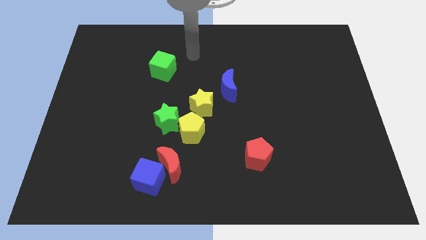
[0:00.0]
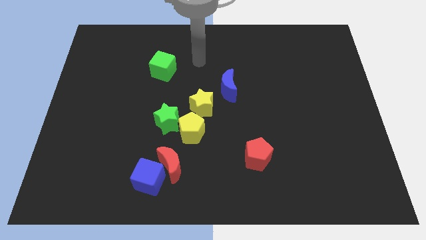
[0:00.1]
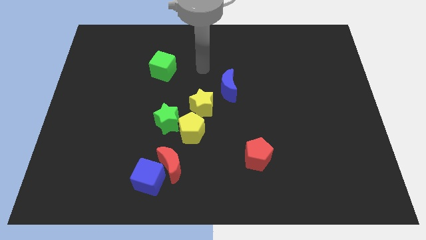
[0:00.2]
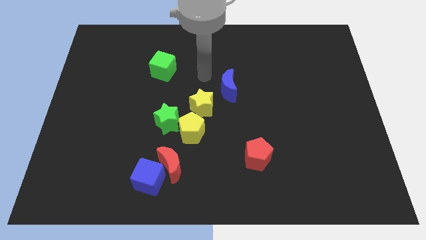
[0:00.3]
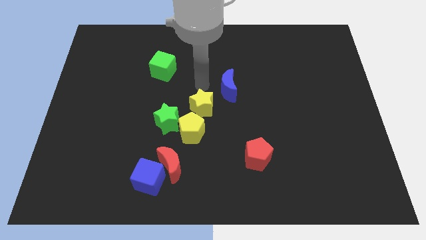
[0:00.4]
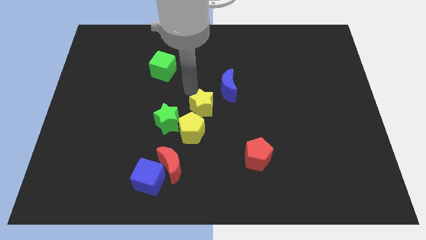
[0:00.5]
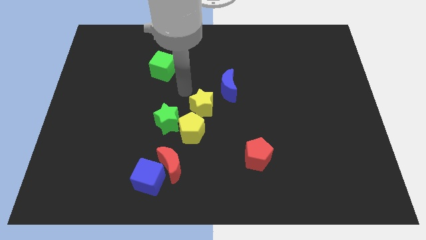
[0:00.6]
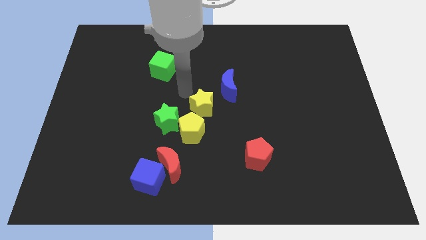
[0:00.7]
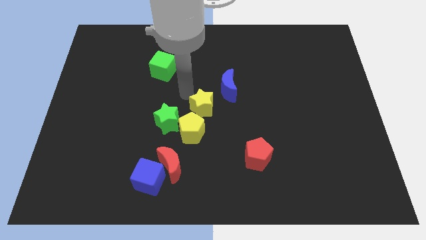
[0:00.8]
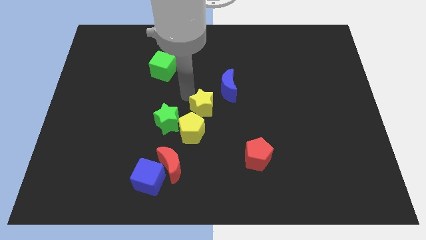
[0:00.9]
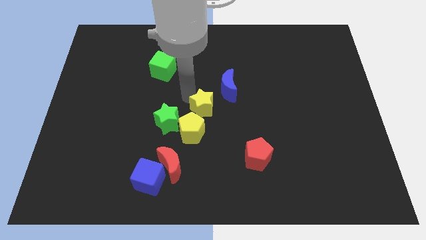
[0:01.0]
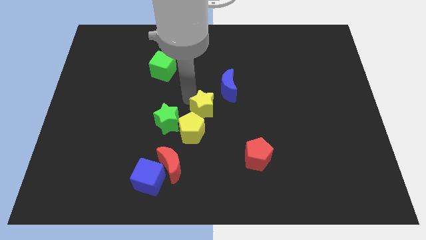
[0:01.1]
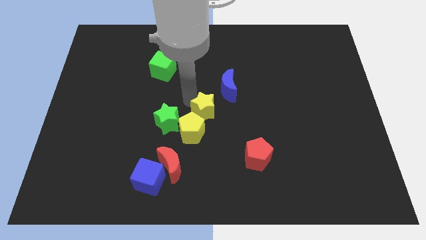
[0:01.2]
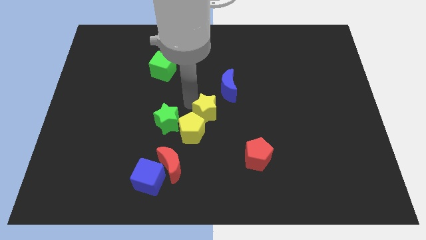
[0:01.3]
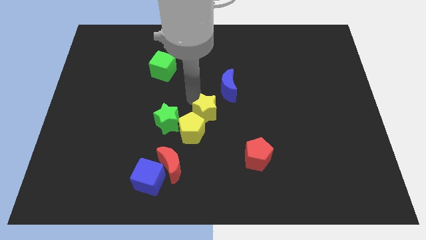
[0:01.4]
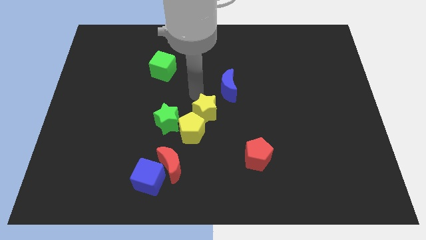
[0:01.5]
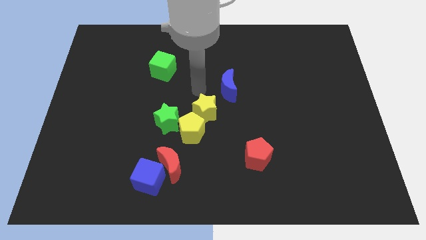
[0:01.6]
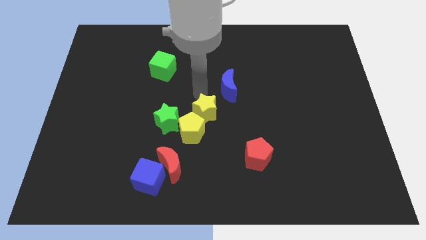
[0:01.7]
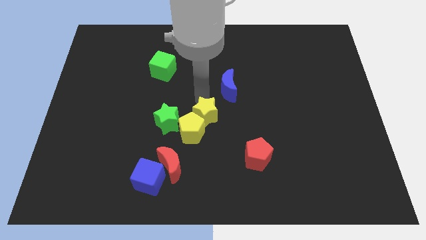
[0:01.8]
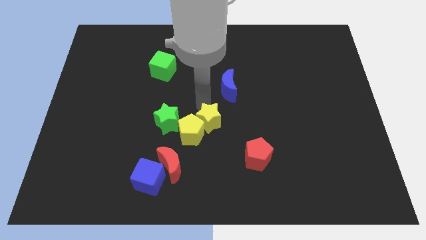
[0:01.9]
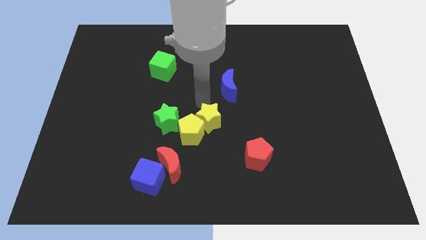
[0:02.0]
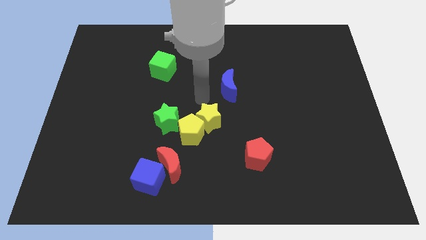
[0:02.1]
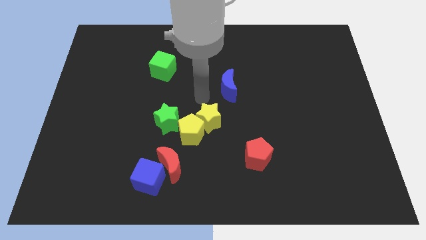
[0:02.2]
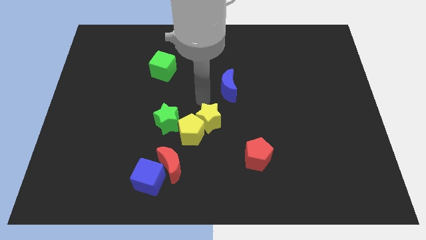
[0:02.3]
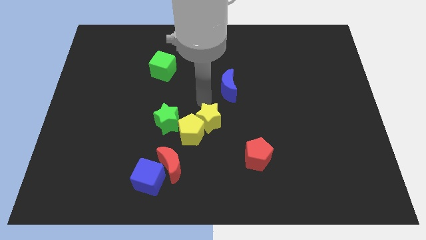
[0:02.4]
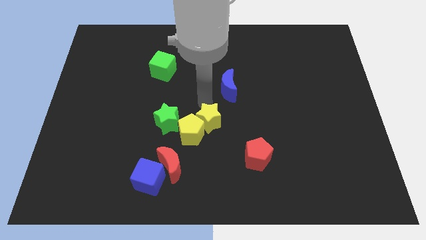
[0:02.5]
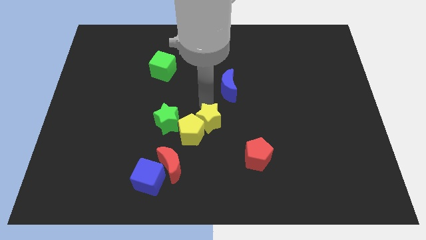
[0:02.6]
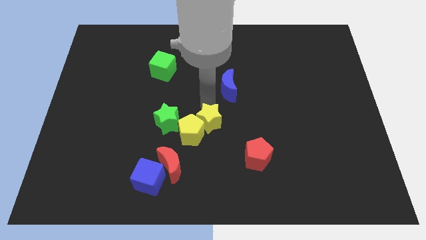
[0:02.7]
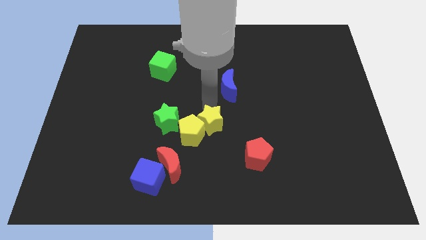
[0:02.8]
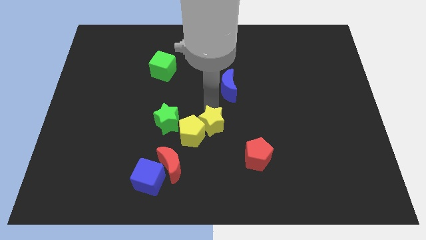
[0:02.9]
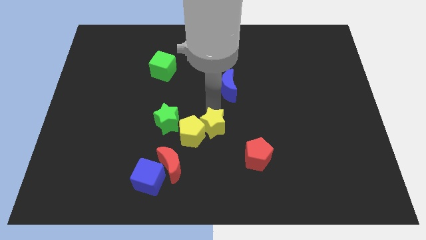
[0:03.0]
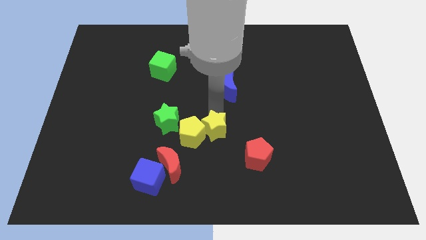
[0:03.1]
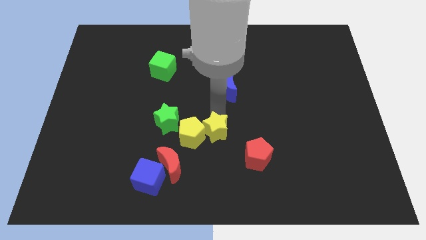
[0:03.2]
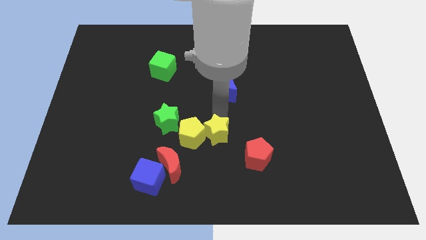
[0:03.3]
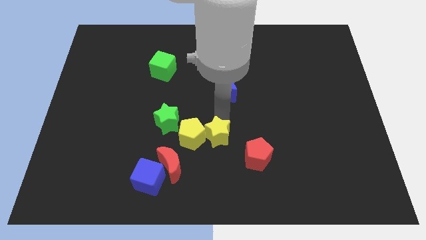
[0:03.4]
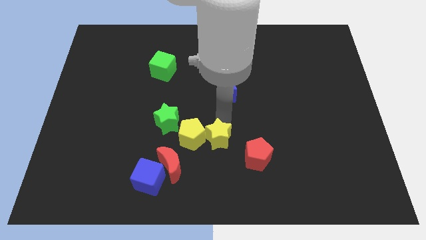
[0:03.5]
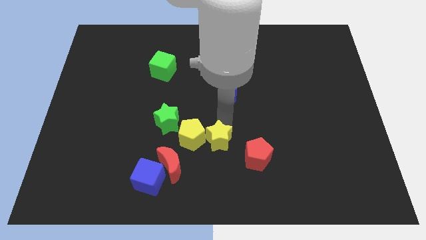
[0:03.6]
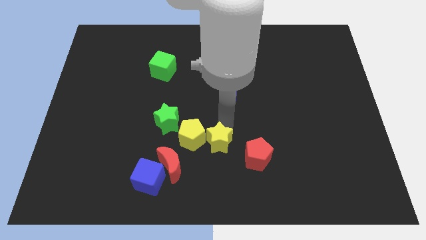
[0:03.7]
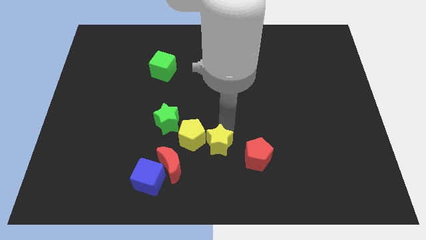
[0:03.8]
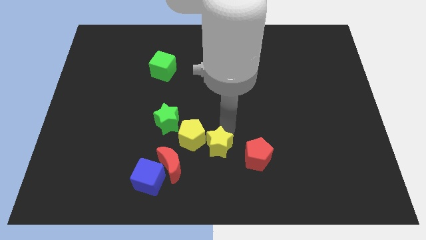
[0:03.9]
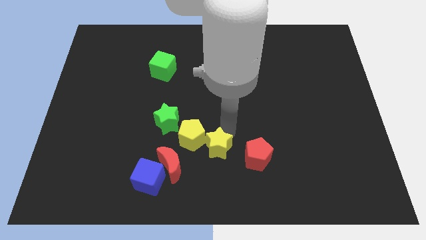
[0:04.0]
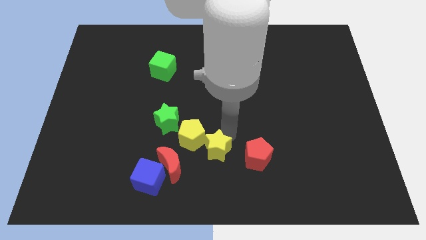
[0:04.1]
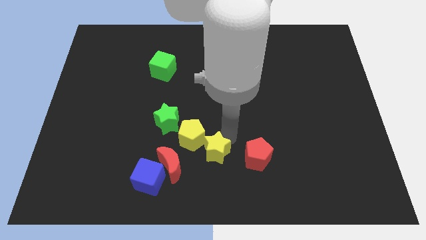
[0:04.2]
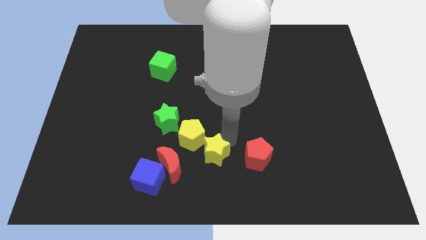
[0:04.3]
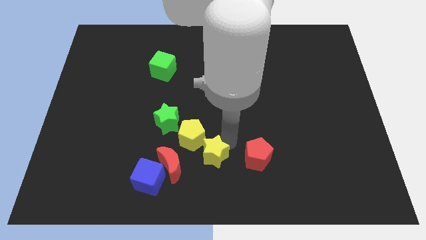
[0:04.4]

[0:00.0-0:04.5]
push the yellow star to the bottom

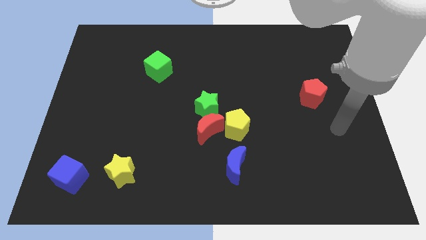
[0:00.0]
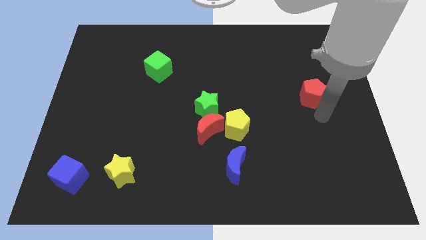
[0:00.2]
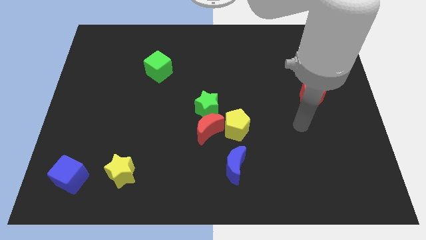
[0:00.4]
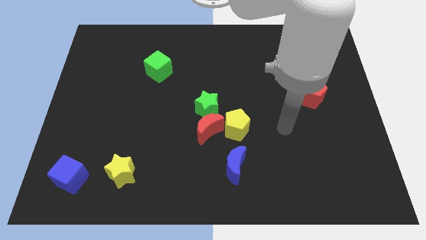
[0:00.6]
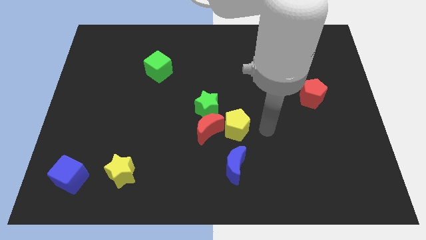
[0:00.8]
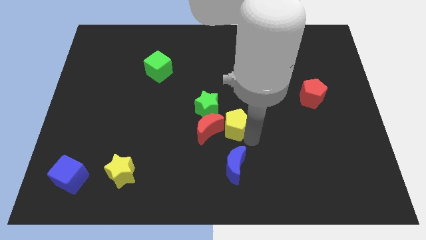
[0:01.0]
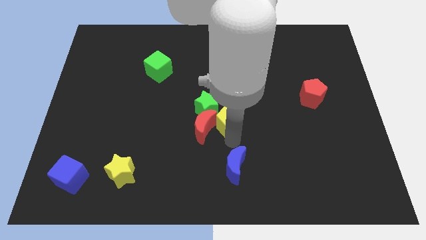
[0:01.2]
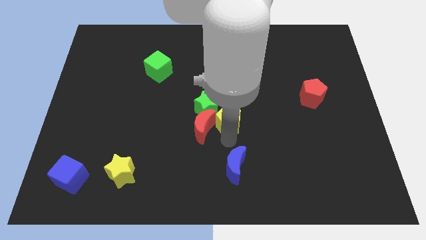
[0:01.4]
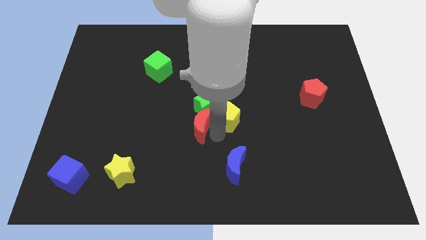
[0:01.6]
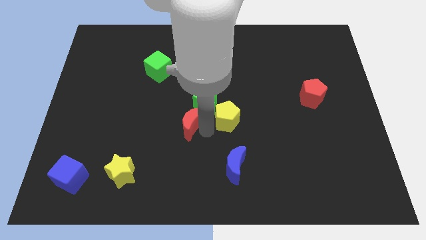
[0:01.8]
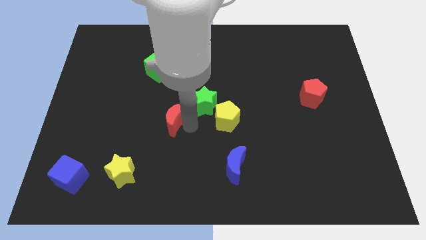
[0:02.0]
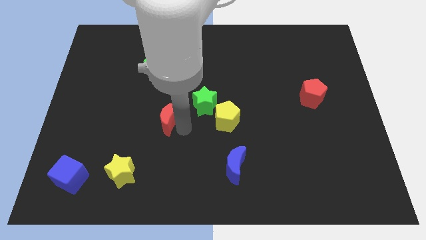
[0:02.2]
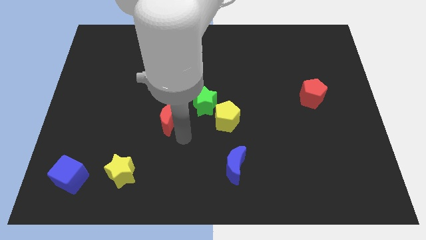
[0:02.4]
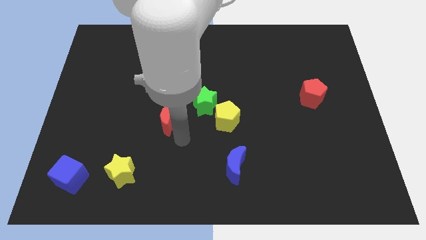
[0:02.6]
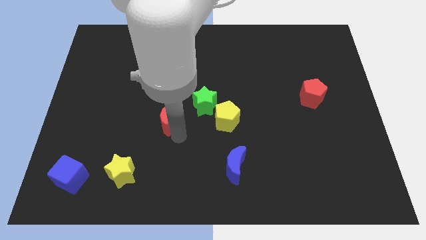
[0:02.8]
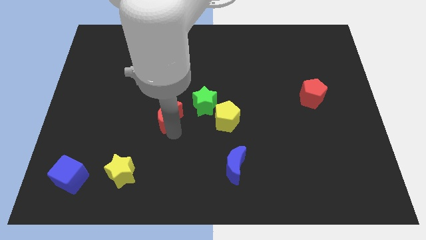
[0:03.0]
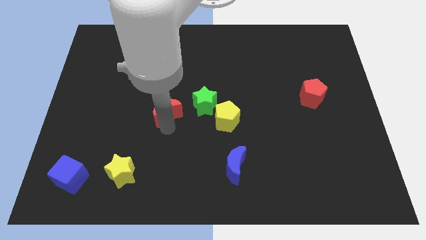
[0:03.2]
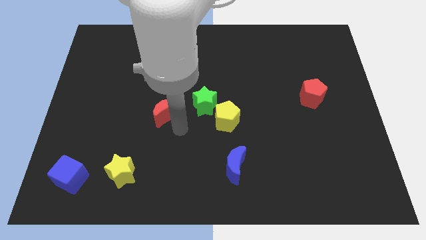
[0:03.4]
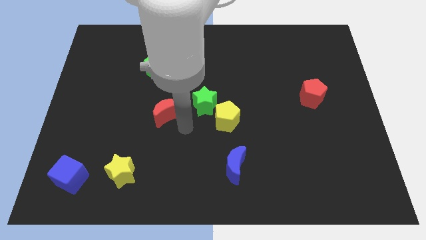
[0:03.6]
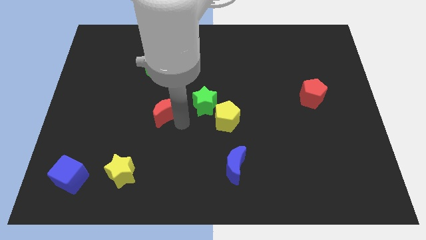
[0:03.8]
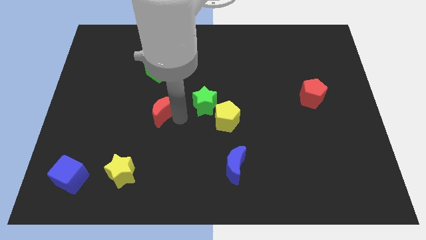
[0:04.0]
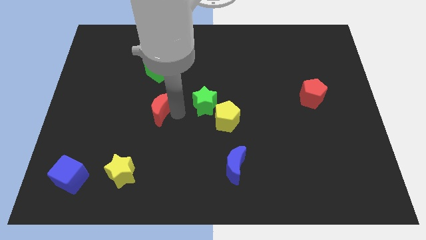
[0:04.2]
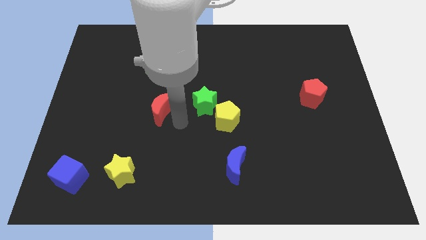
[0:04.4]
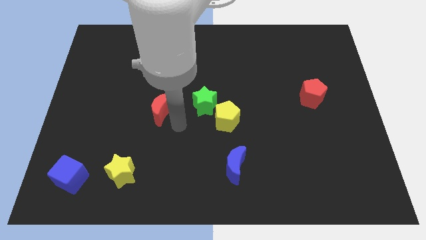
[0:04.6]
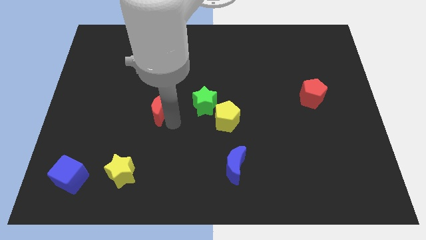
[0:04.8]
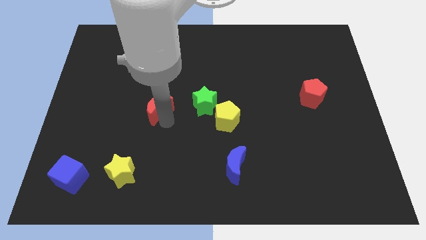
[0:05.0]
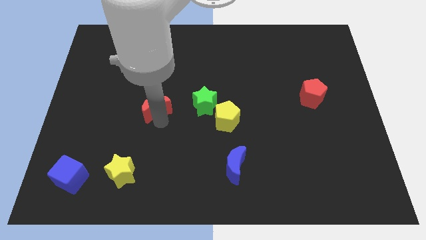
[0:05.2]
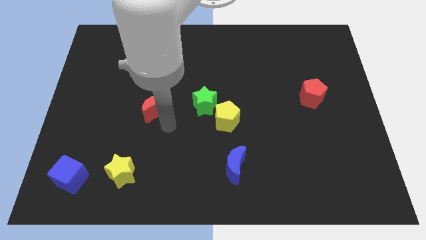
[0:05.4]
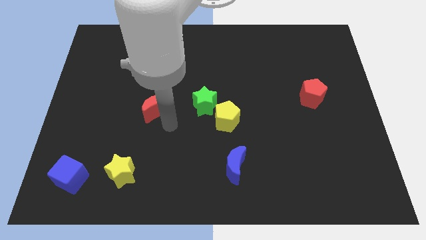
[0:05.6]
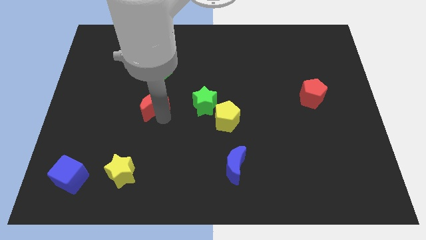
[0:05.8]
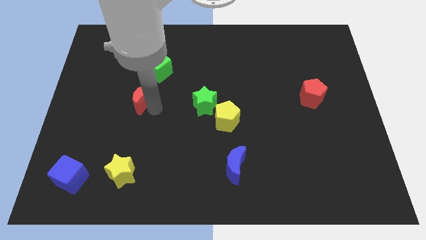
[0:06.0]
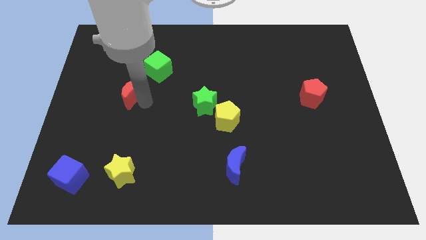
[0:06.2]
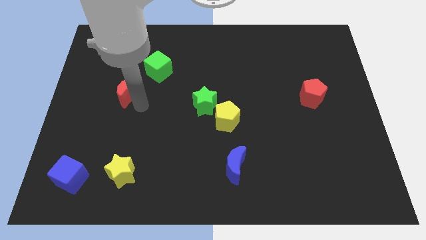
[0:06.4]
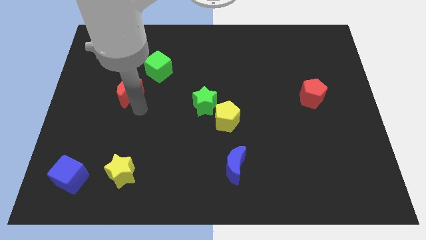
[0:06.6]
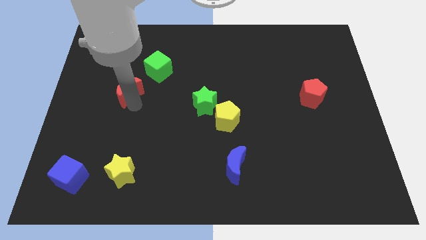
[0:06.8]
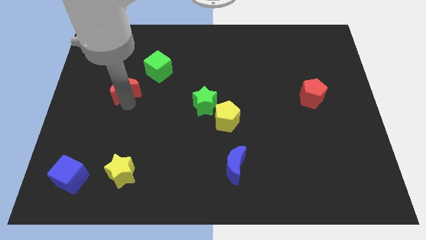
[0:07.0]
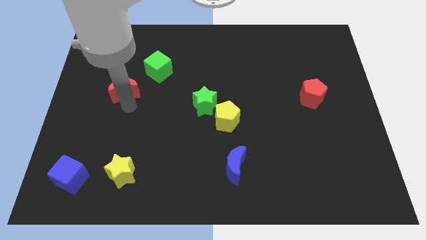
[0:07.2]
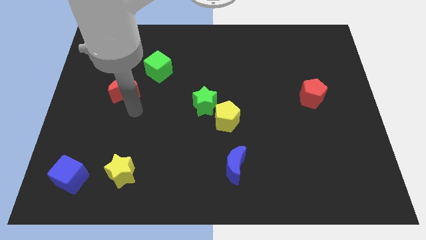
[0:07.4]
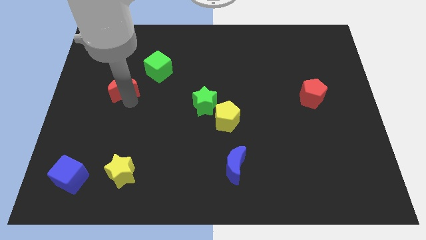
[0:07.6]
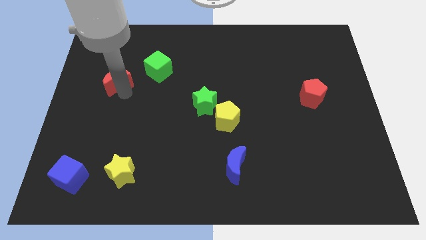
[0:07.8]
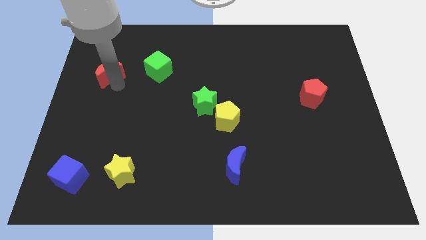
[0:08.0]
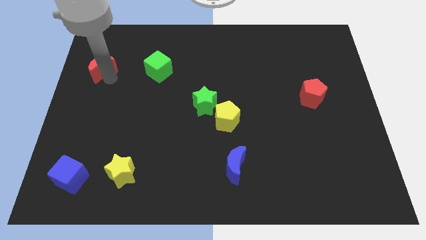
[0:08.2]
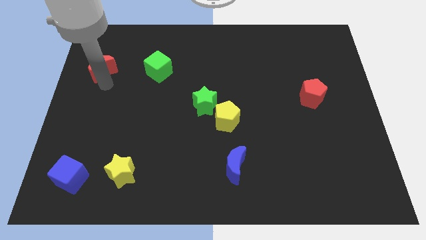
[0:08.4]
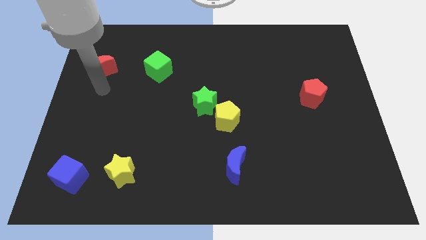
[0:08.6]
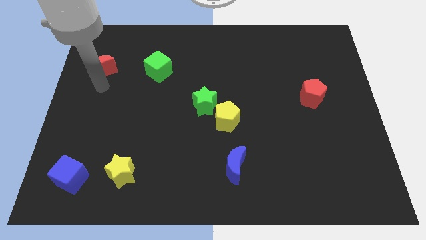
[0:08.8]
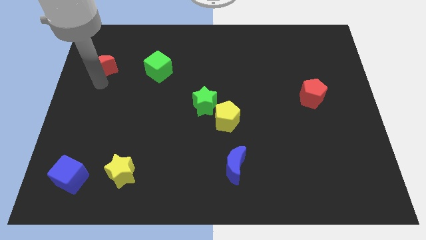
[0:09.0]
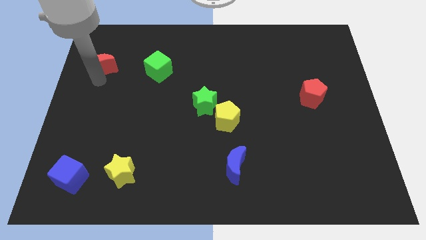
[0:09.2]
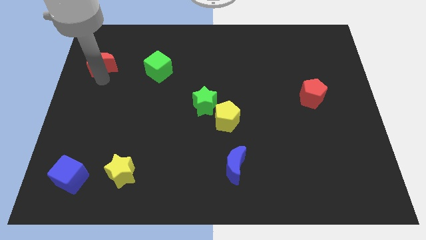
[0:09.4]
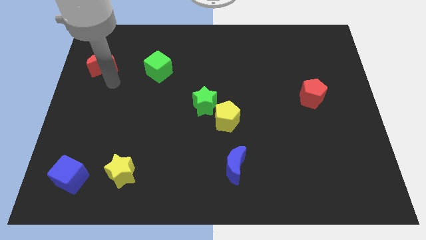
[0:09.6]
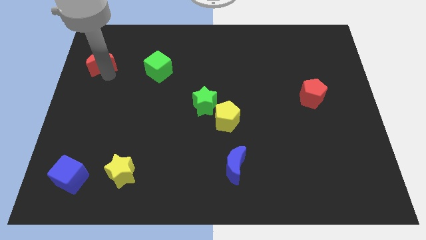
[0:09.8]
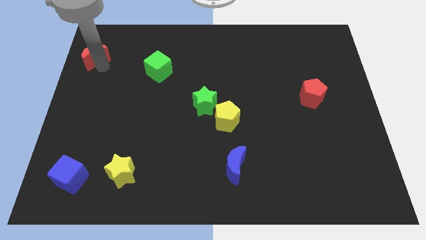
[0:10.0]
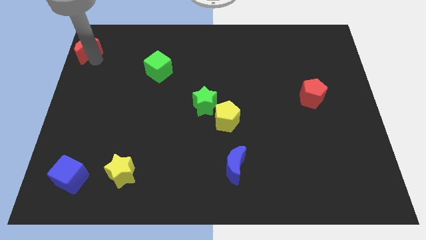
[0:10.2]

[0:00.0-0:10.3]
put the red moon to the top left corner
